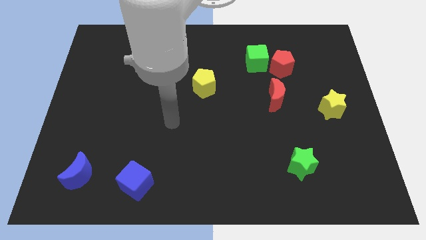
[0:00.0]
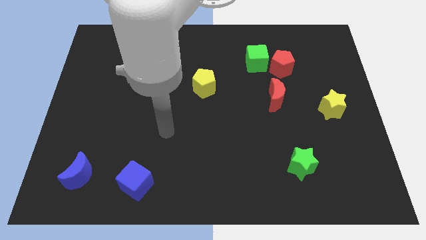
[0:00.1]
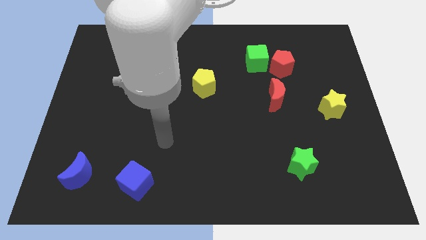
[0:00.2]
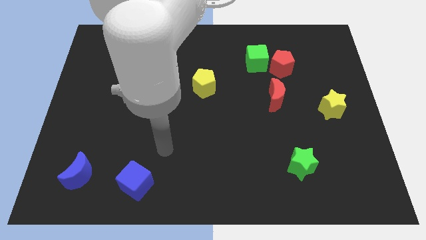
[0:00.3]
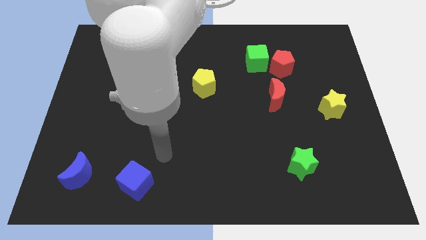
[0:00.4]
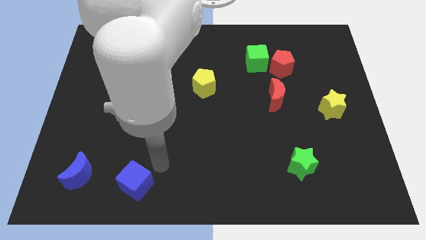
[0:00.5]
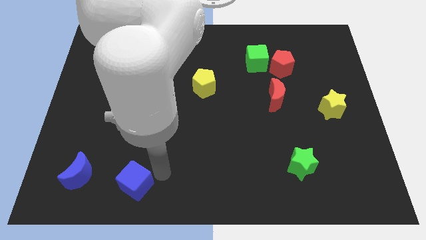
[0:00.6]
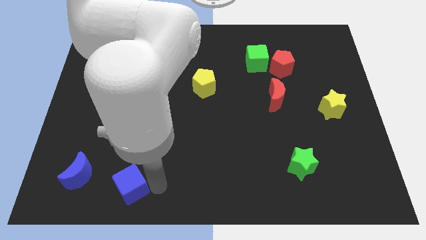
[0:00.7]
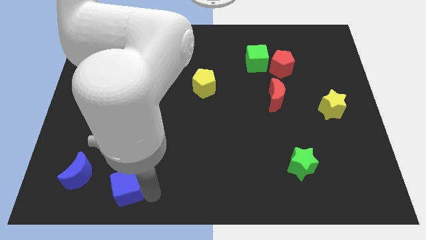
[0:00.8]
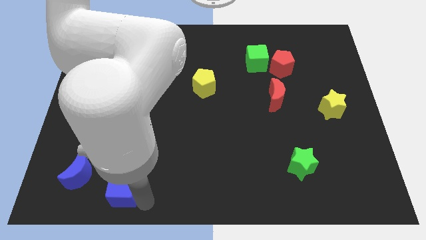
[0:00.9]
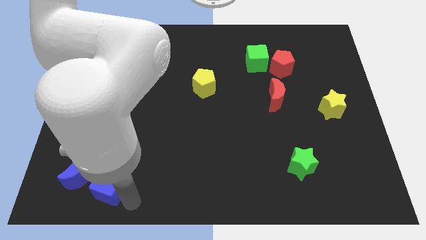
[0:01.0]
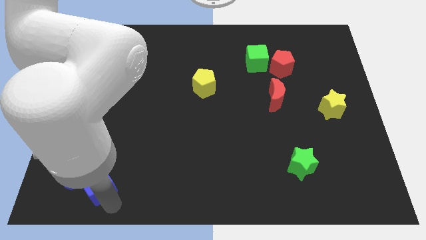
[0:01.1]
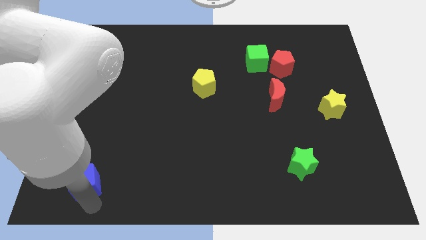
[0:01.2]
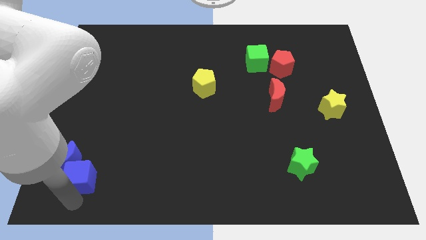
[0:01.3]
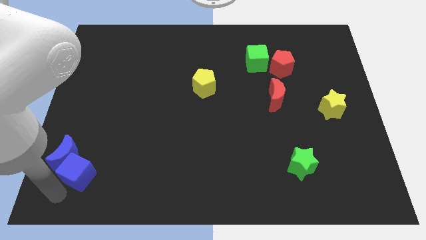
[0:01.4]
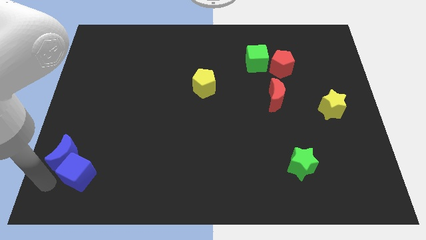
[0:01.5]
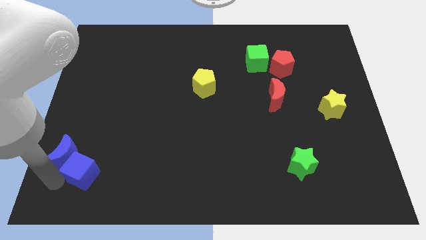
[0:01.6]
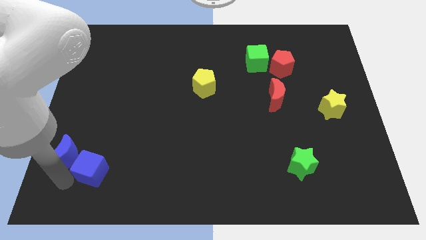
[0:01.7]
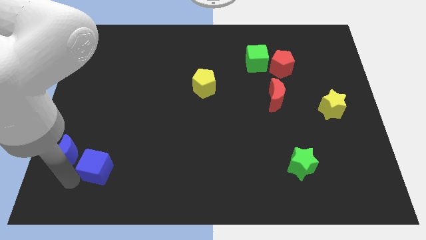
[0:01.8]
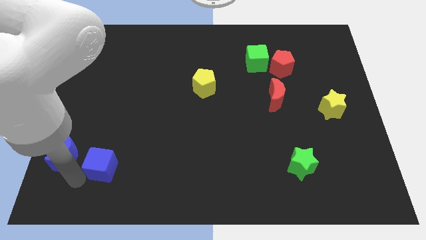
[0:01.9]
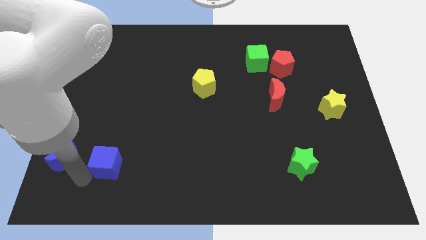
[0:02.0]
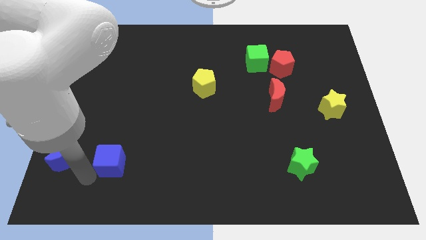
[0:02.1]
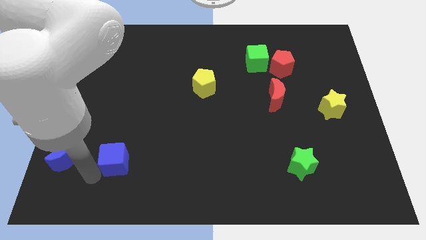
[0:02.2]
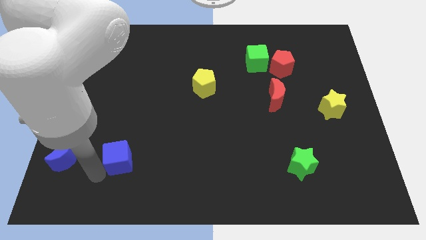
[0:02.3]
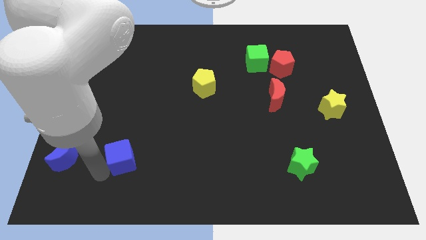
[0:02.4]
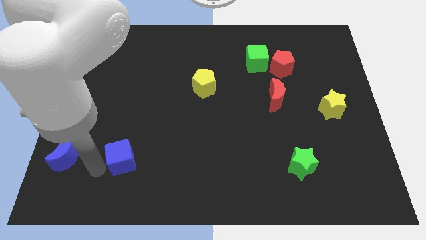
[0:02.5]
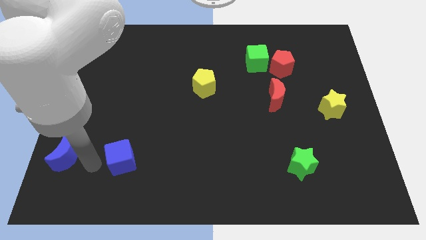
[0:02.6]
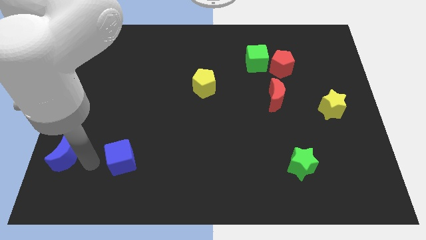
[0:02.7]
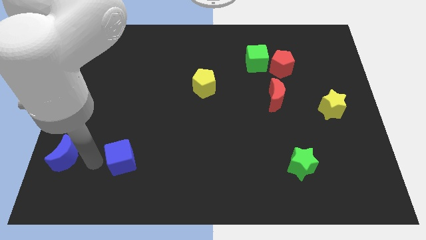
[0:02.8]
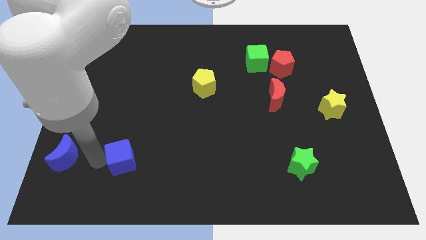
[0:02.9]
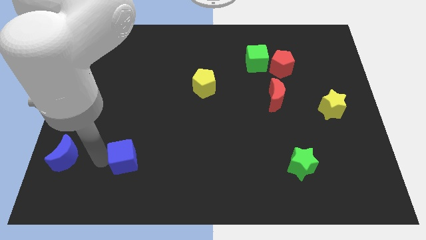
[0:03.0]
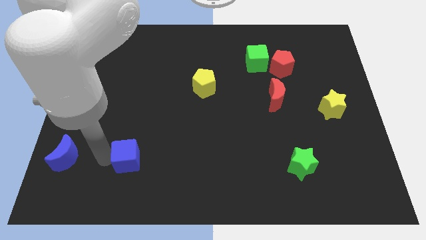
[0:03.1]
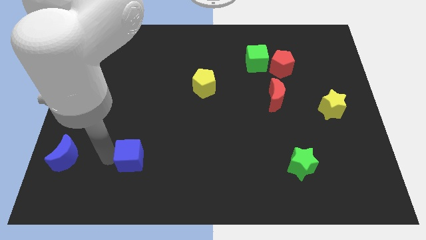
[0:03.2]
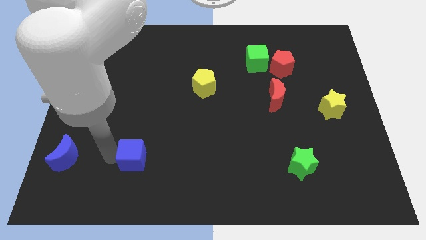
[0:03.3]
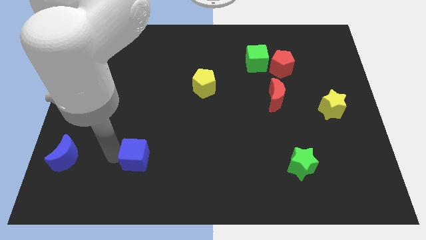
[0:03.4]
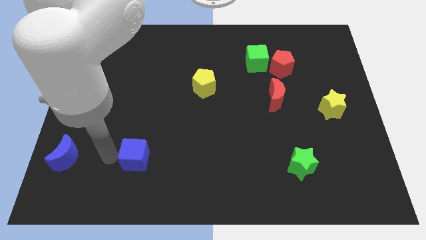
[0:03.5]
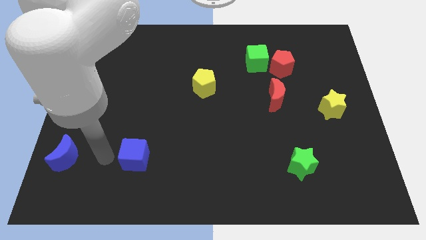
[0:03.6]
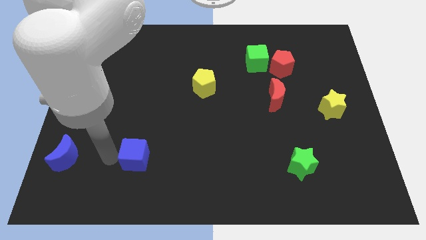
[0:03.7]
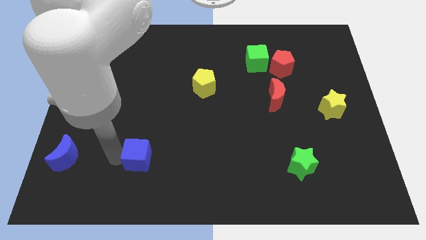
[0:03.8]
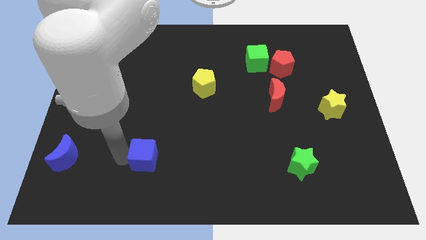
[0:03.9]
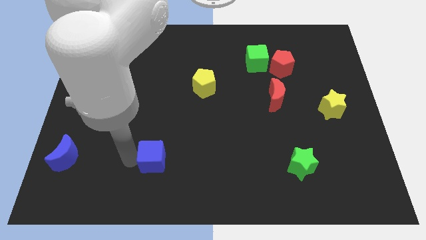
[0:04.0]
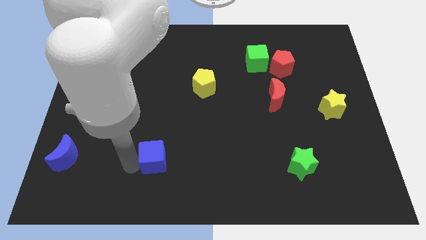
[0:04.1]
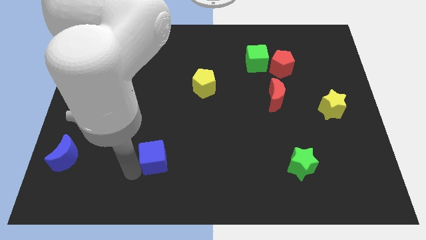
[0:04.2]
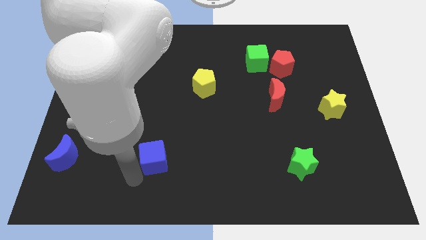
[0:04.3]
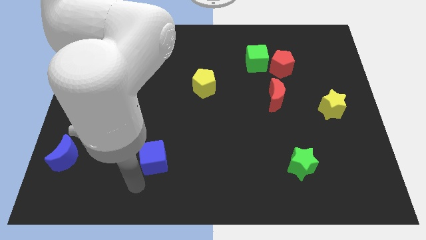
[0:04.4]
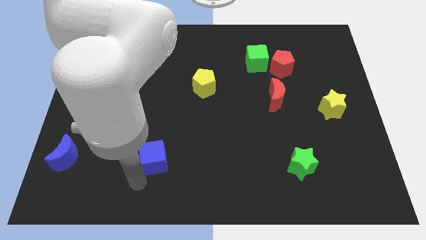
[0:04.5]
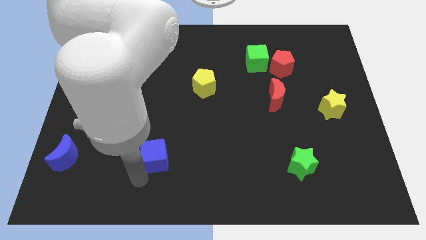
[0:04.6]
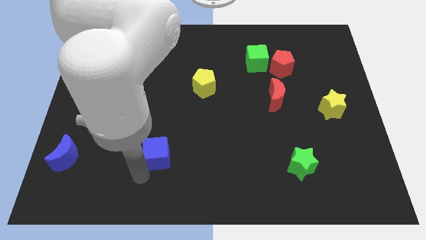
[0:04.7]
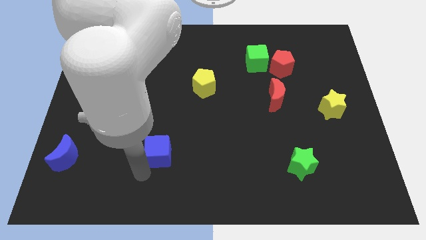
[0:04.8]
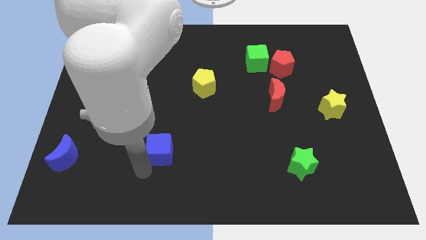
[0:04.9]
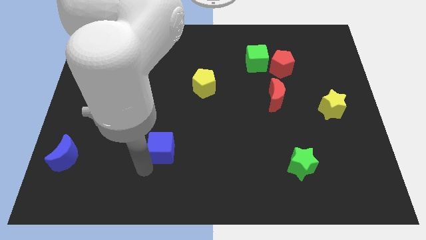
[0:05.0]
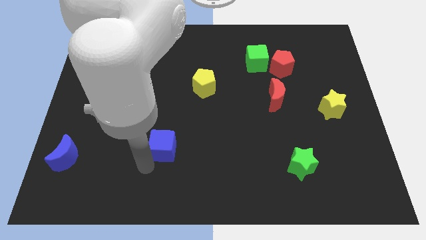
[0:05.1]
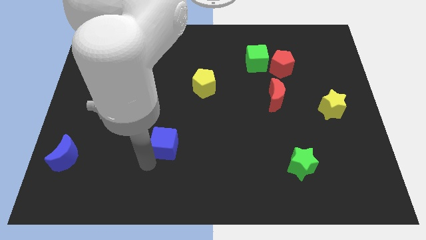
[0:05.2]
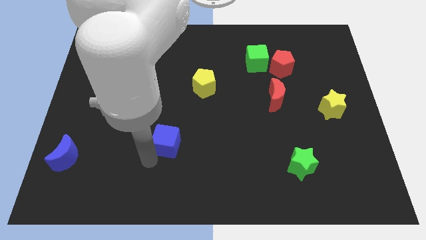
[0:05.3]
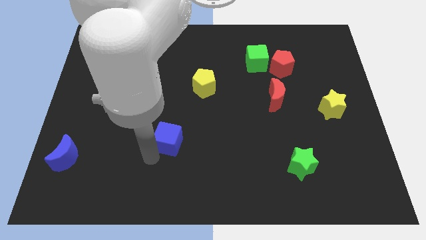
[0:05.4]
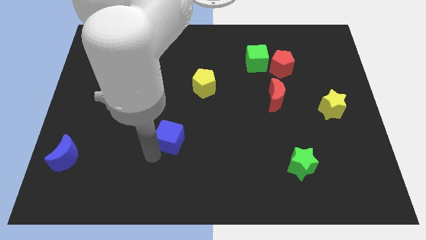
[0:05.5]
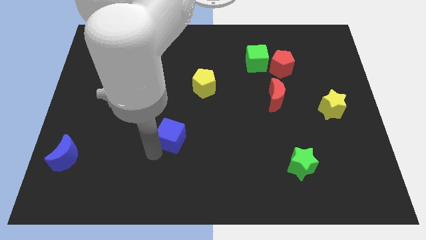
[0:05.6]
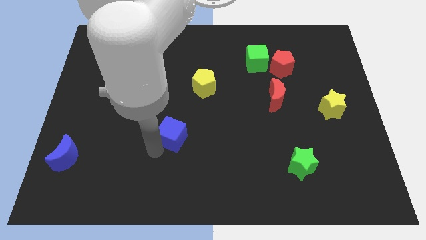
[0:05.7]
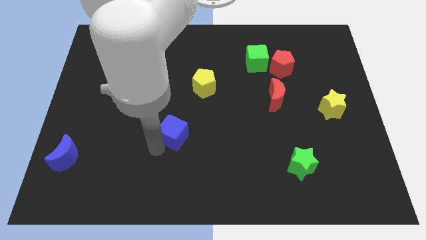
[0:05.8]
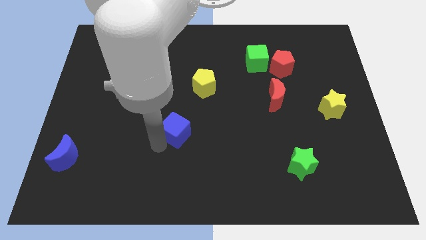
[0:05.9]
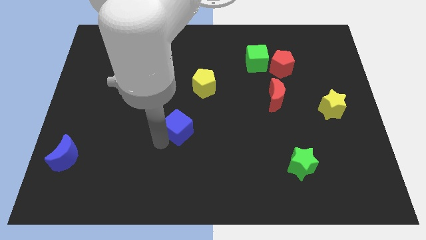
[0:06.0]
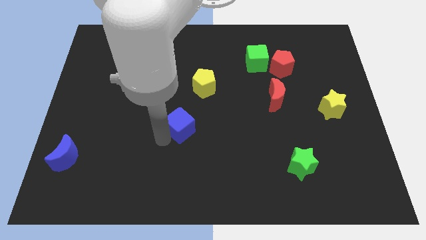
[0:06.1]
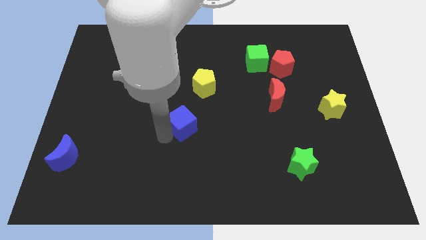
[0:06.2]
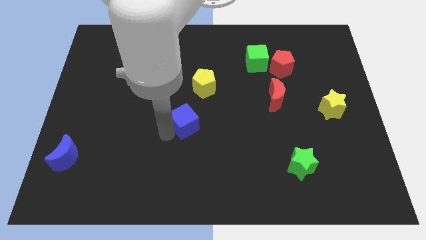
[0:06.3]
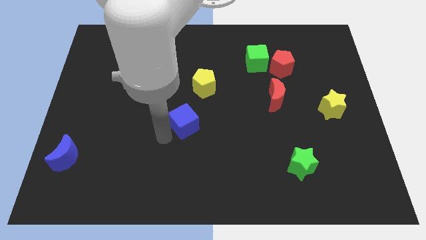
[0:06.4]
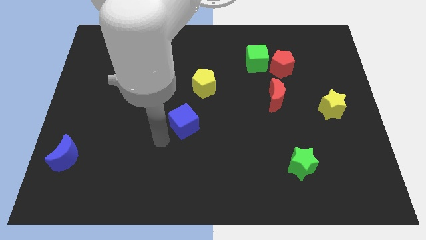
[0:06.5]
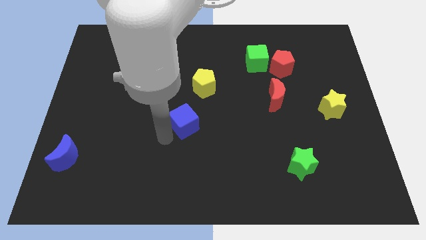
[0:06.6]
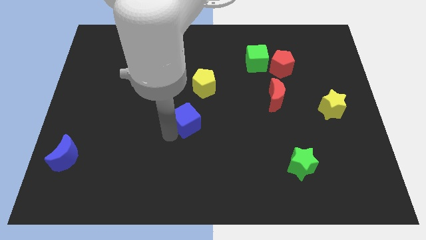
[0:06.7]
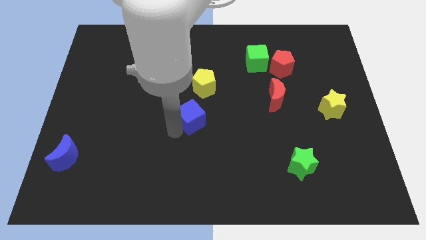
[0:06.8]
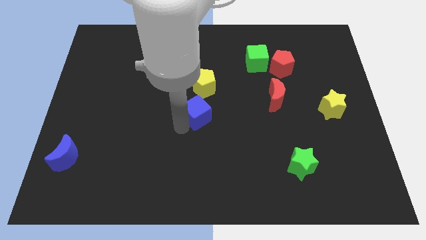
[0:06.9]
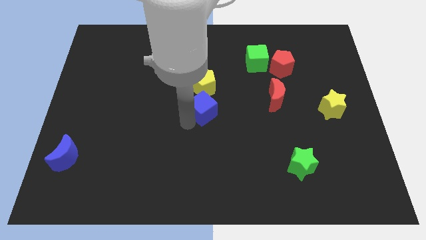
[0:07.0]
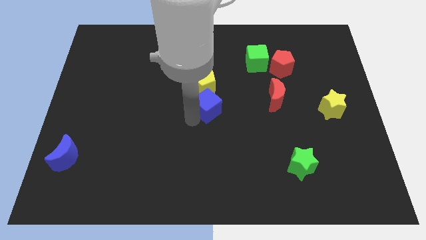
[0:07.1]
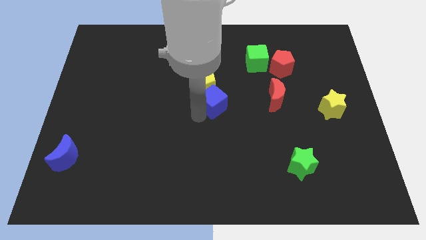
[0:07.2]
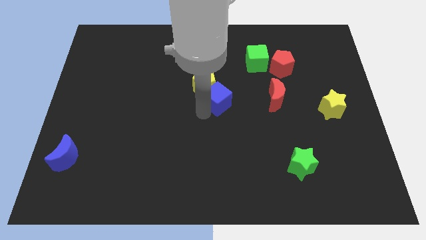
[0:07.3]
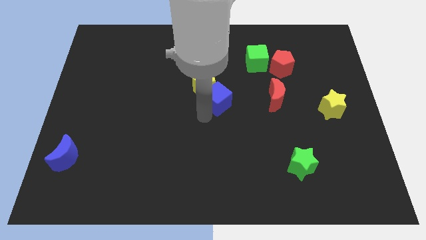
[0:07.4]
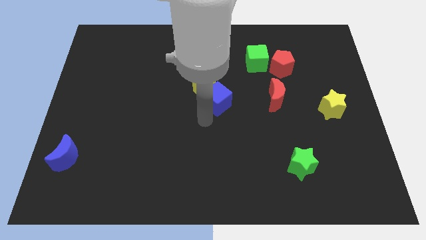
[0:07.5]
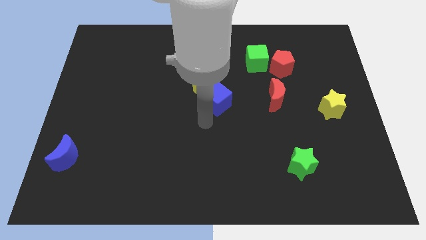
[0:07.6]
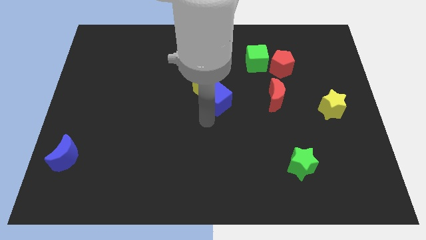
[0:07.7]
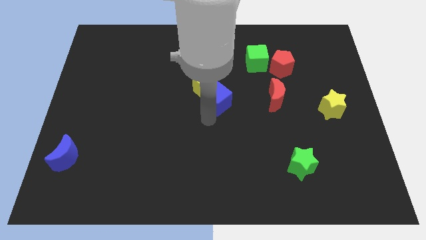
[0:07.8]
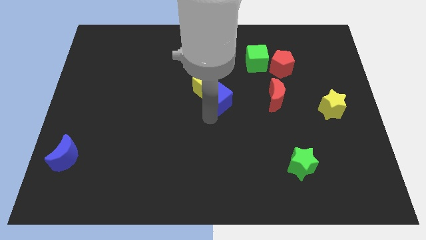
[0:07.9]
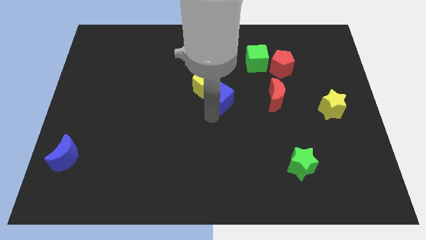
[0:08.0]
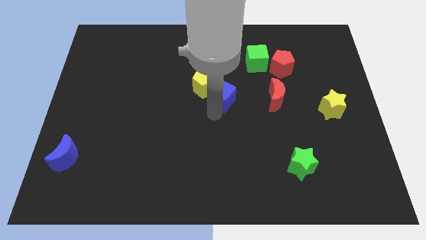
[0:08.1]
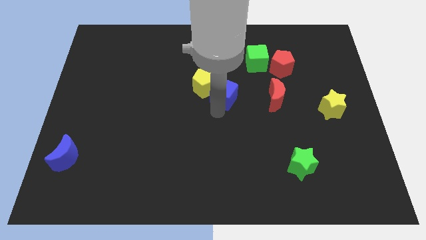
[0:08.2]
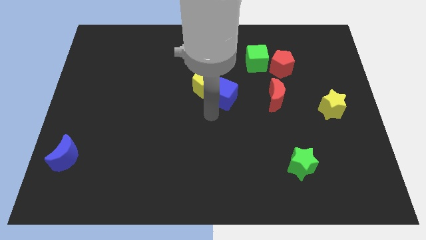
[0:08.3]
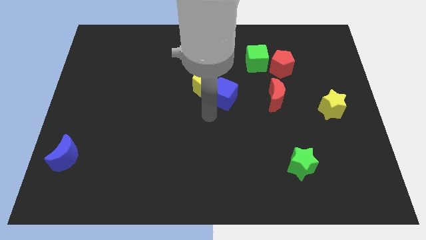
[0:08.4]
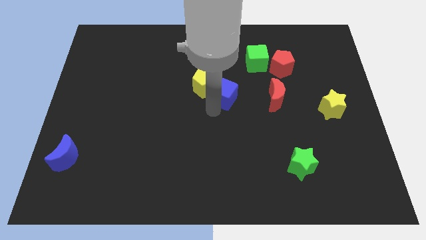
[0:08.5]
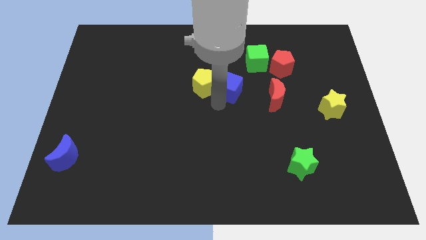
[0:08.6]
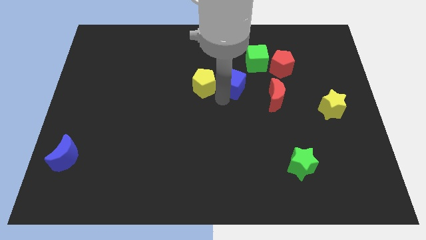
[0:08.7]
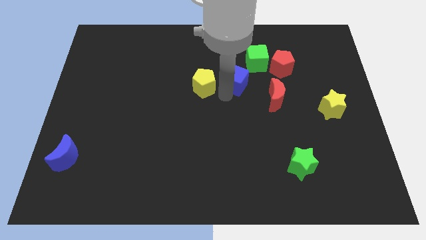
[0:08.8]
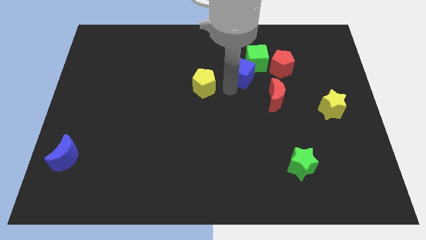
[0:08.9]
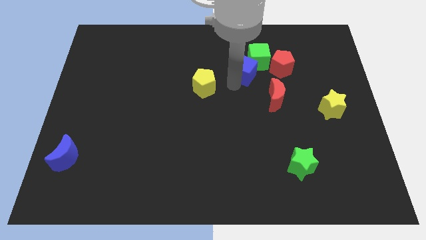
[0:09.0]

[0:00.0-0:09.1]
push the blue cube close to the green cube
